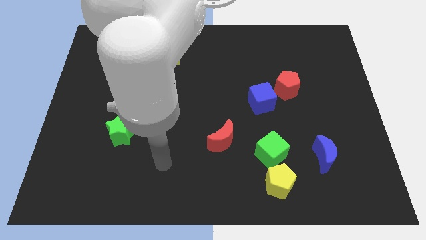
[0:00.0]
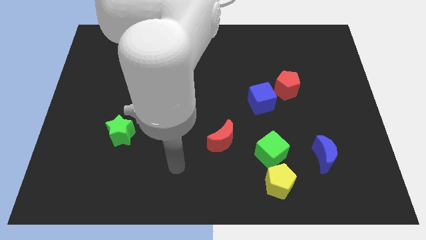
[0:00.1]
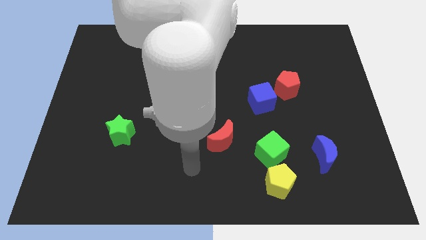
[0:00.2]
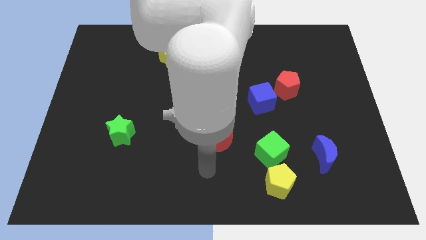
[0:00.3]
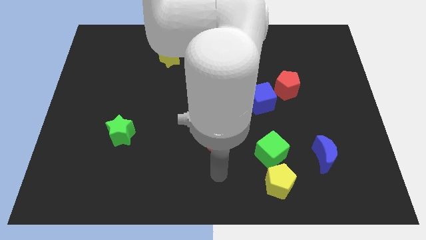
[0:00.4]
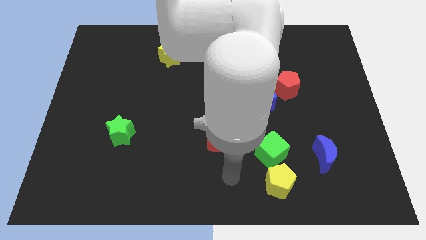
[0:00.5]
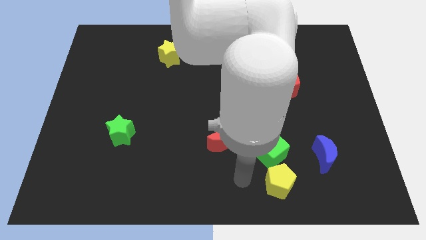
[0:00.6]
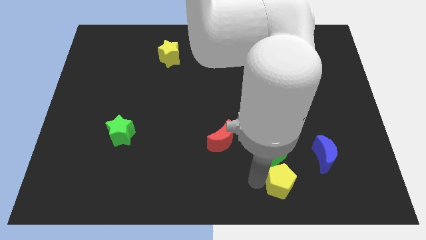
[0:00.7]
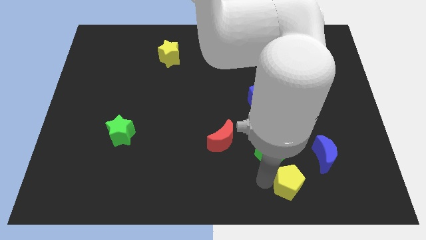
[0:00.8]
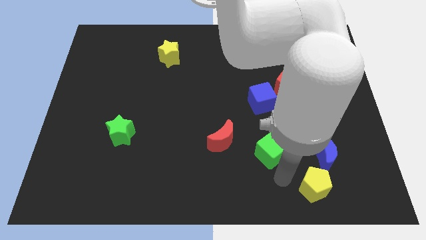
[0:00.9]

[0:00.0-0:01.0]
move the green cube away from the yellow pentagon

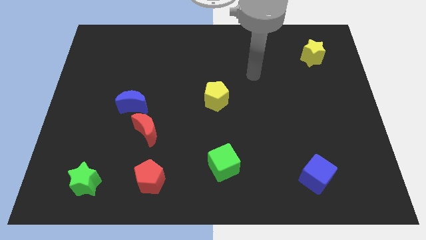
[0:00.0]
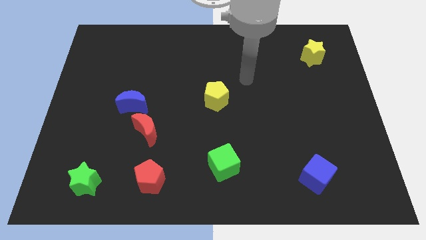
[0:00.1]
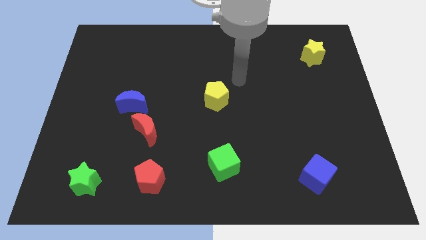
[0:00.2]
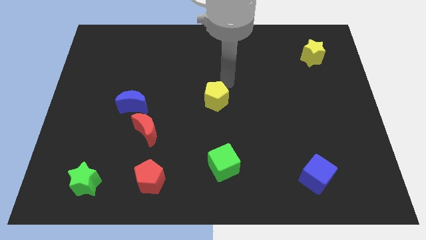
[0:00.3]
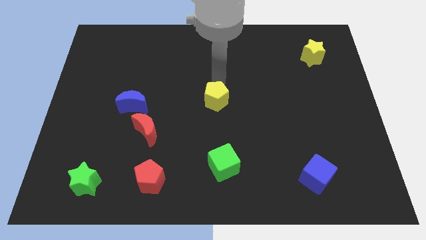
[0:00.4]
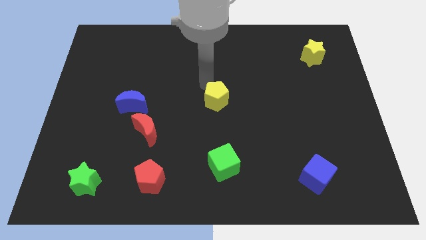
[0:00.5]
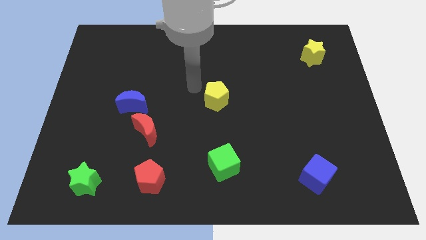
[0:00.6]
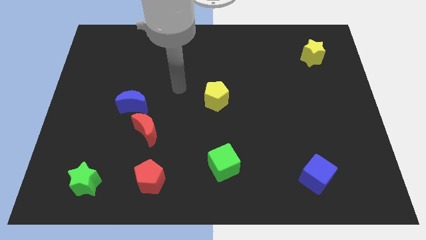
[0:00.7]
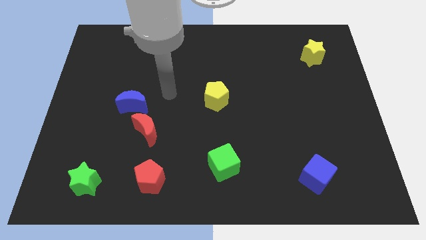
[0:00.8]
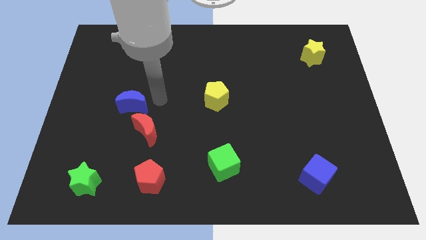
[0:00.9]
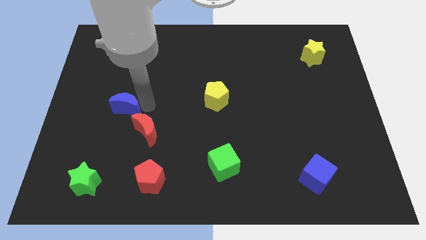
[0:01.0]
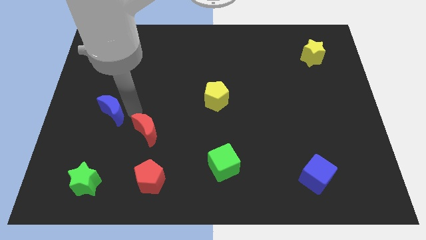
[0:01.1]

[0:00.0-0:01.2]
pull the red moon apart from the blue moon

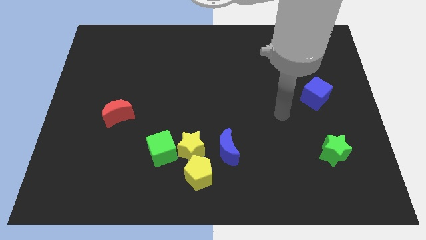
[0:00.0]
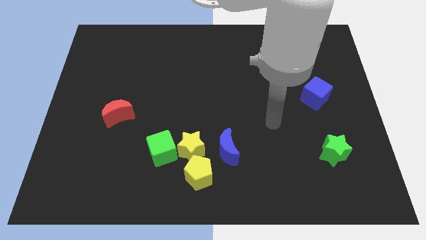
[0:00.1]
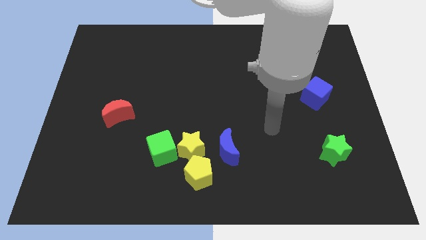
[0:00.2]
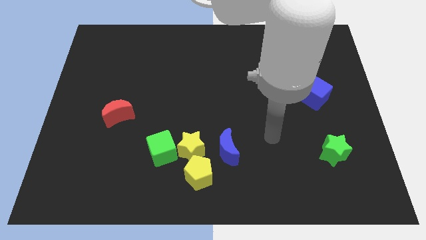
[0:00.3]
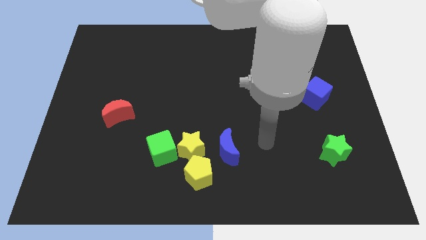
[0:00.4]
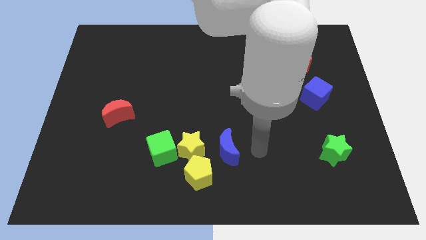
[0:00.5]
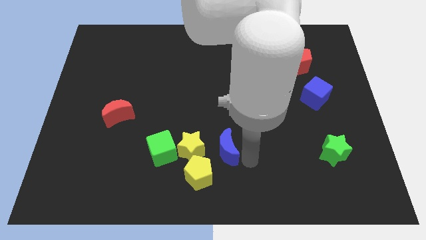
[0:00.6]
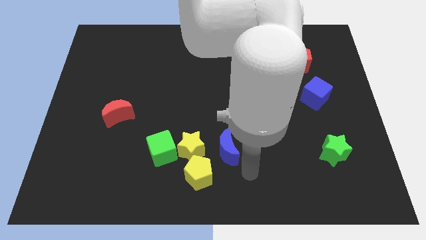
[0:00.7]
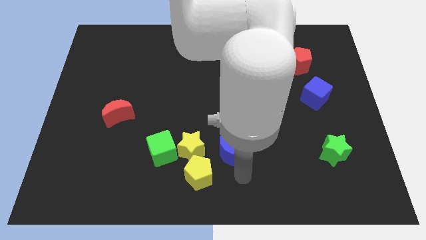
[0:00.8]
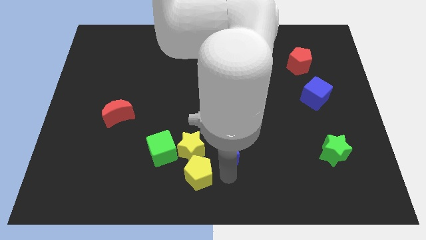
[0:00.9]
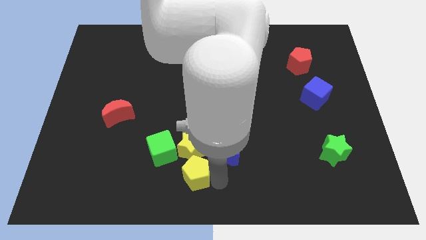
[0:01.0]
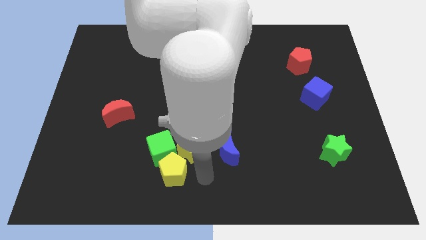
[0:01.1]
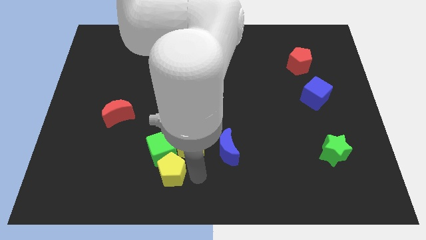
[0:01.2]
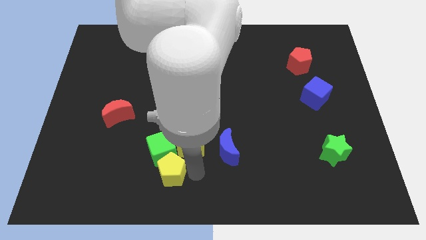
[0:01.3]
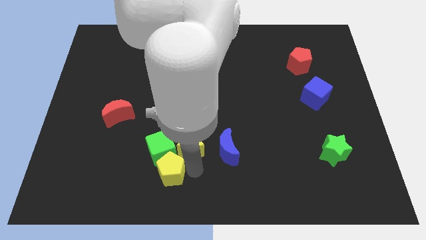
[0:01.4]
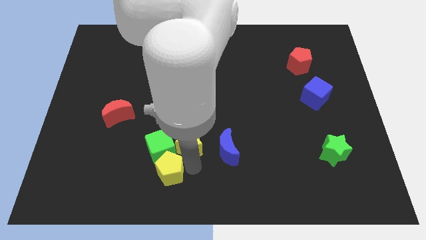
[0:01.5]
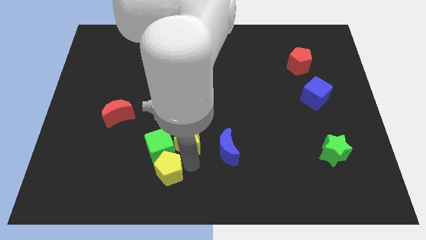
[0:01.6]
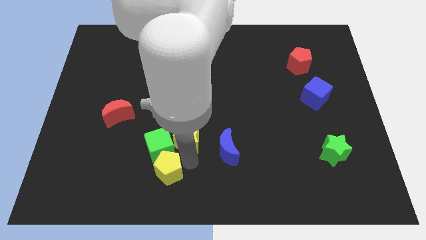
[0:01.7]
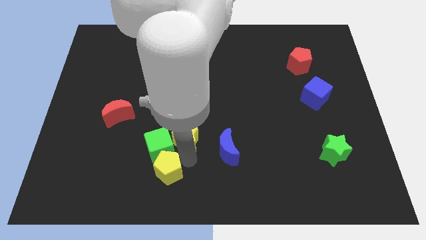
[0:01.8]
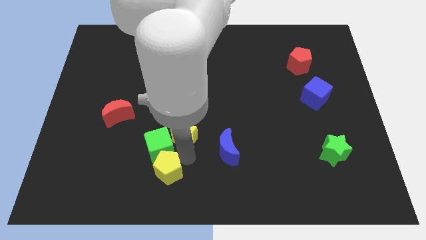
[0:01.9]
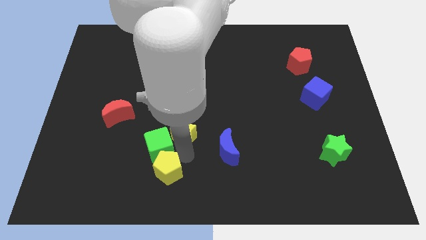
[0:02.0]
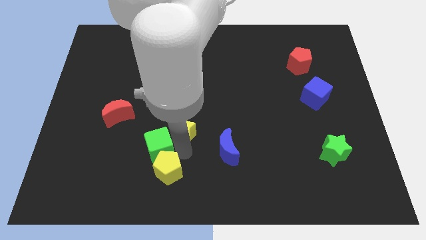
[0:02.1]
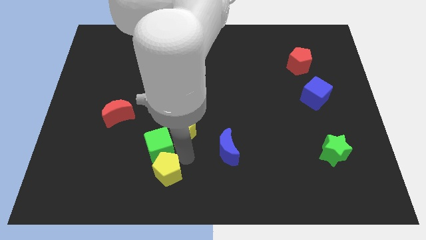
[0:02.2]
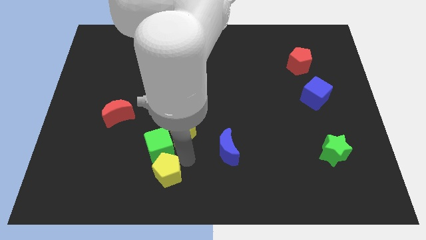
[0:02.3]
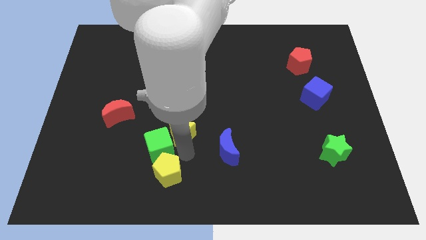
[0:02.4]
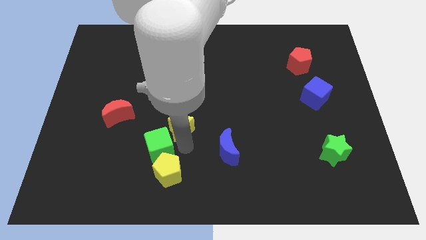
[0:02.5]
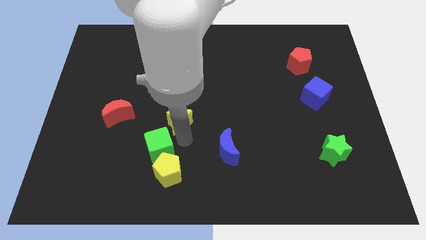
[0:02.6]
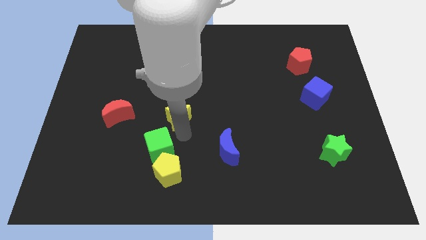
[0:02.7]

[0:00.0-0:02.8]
separate the yellow star from the clump

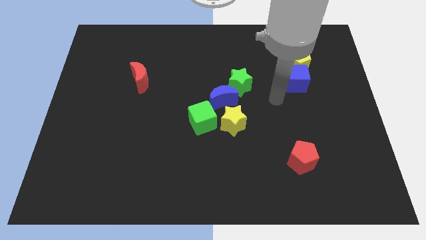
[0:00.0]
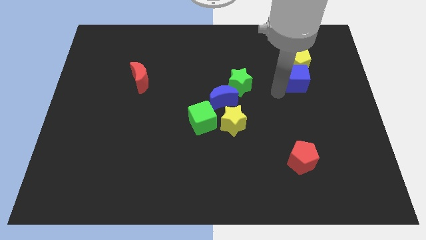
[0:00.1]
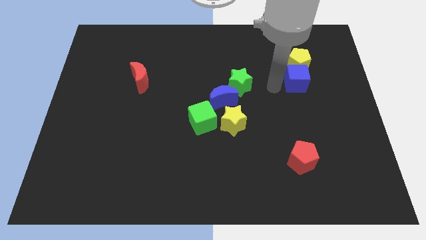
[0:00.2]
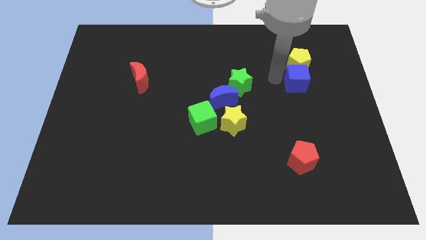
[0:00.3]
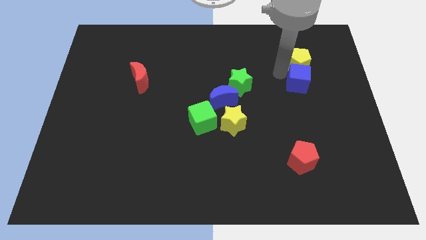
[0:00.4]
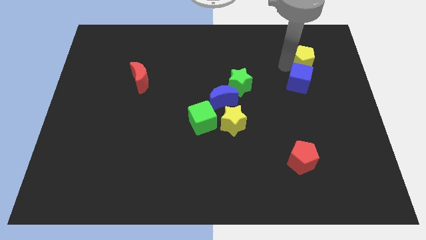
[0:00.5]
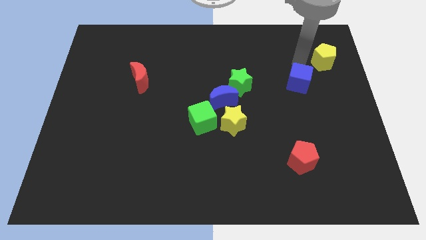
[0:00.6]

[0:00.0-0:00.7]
pull the blue cube apart from the yellow pentagon

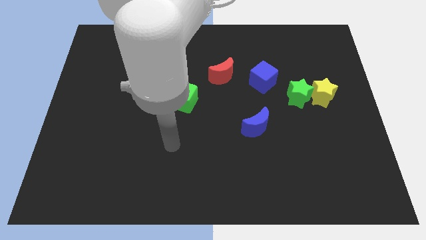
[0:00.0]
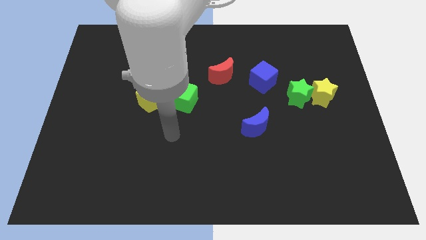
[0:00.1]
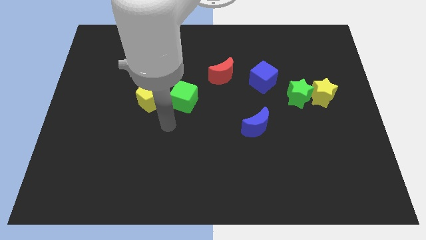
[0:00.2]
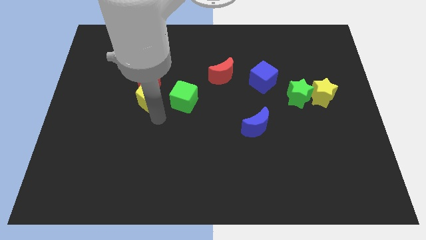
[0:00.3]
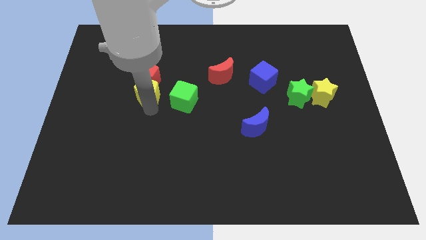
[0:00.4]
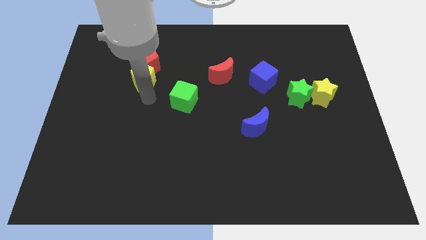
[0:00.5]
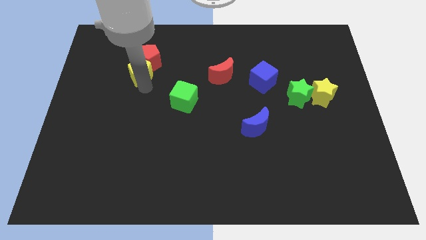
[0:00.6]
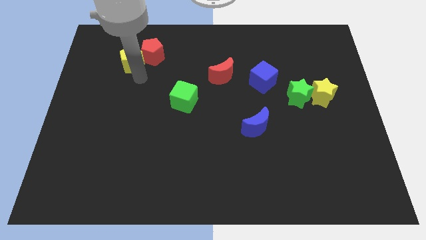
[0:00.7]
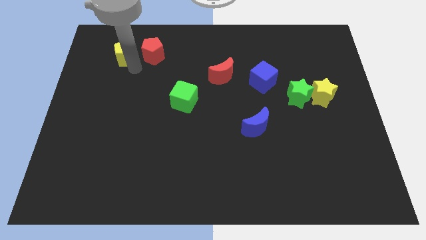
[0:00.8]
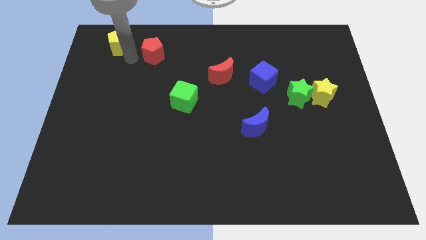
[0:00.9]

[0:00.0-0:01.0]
separate the red pentagon from the yellow pentagon

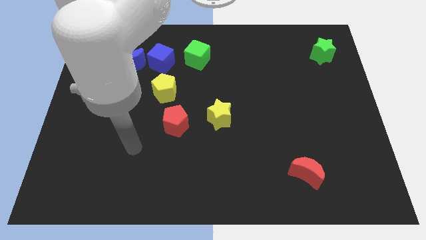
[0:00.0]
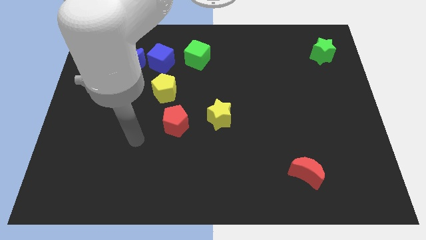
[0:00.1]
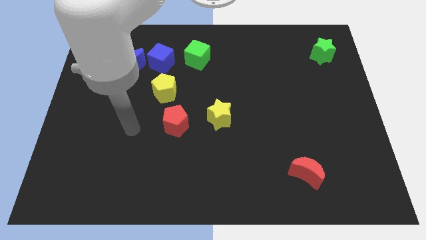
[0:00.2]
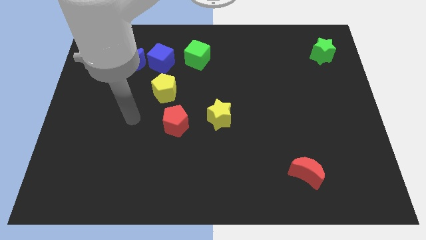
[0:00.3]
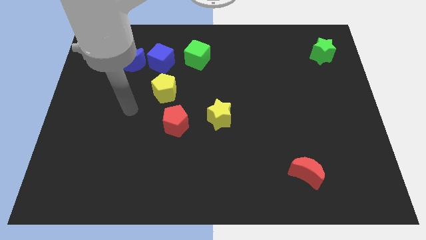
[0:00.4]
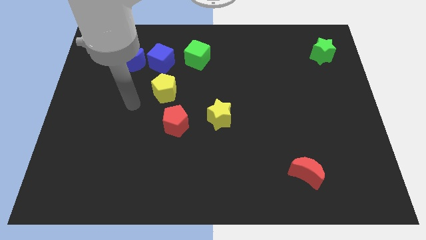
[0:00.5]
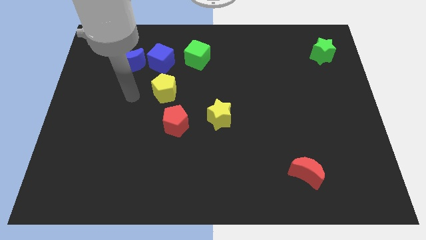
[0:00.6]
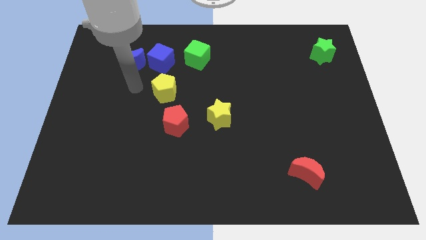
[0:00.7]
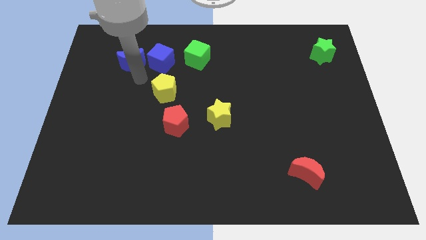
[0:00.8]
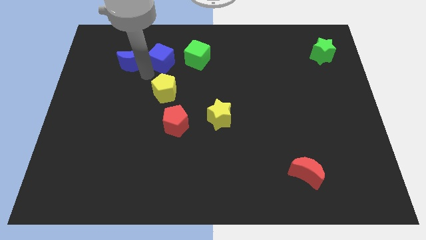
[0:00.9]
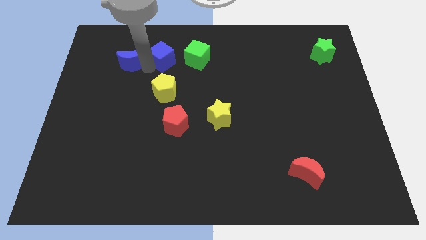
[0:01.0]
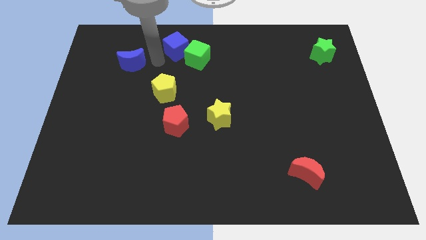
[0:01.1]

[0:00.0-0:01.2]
separate the blue moon from the blue cube

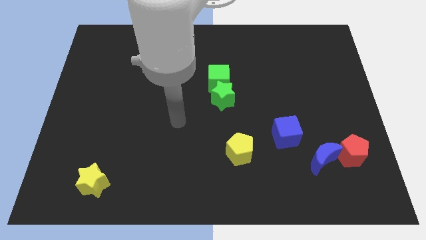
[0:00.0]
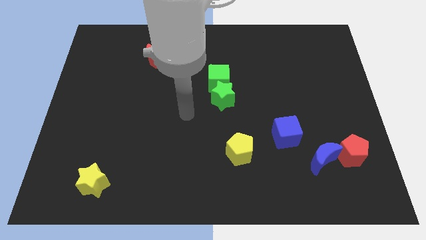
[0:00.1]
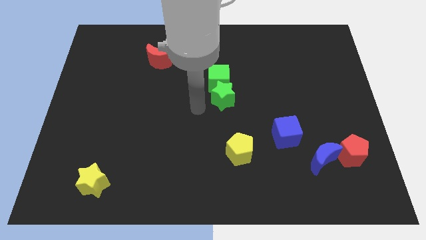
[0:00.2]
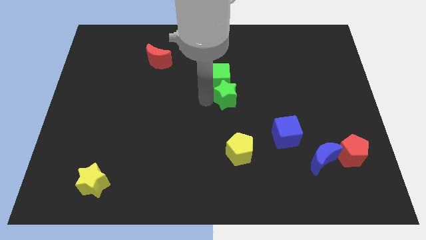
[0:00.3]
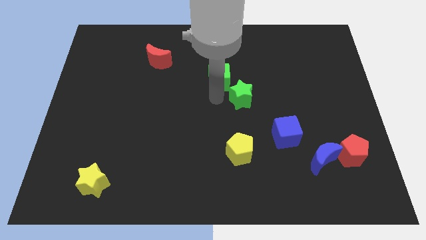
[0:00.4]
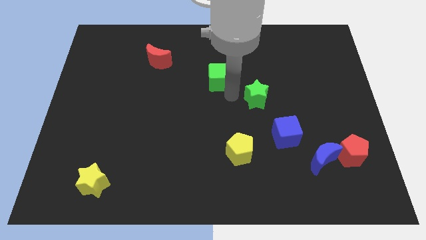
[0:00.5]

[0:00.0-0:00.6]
separate the green cube from the green star

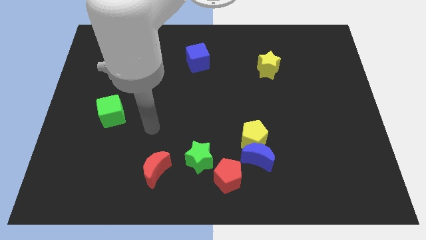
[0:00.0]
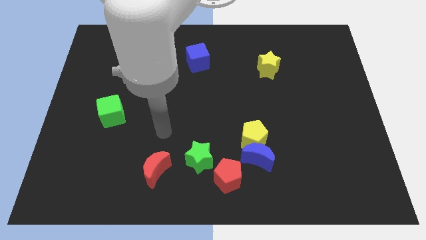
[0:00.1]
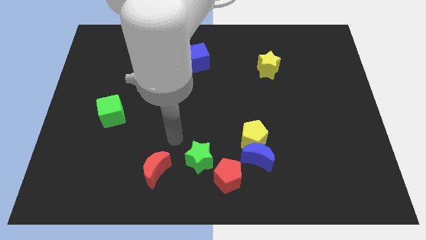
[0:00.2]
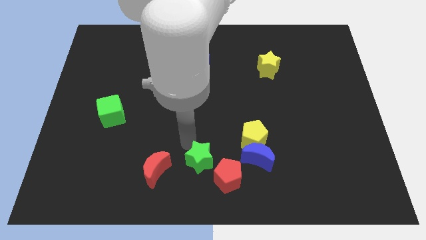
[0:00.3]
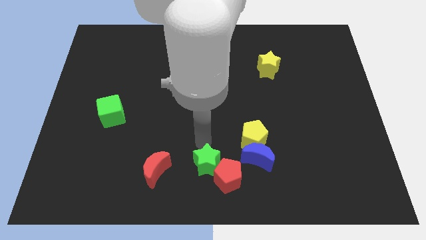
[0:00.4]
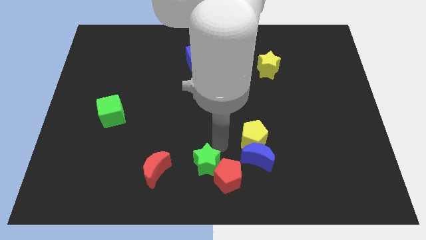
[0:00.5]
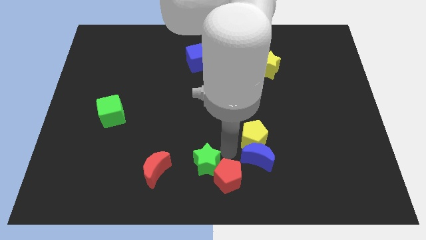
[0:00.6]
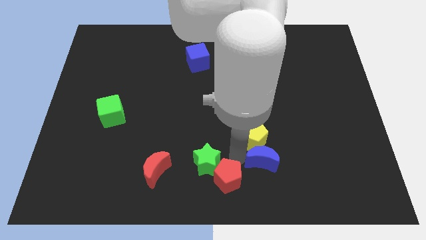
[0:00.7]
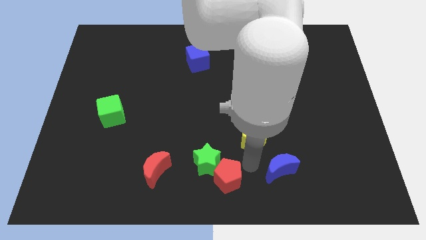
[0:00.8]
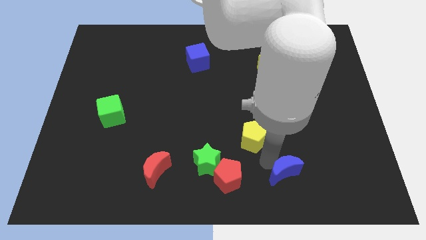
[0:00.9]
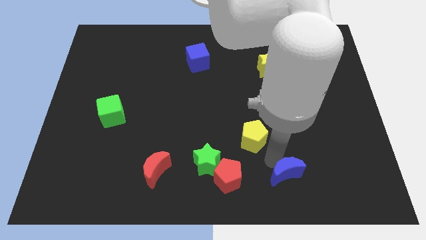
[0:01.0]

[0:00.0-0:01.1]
separate the yellow pentagon from the blue moon
